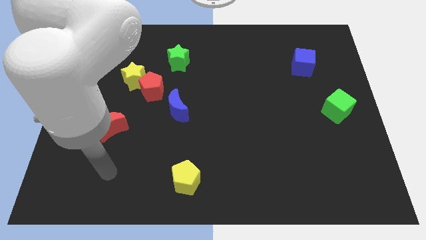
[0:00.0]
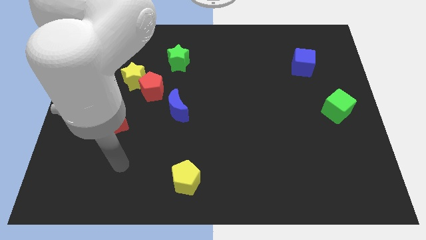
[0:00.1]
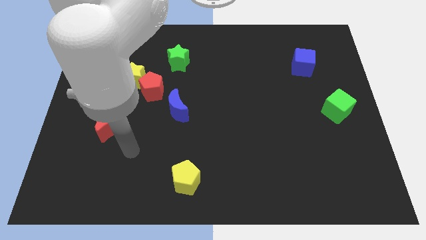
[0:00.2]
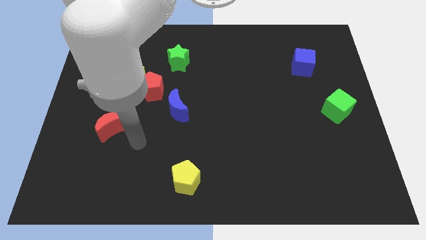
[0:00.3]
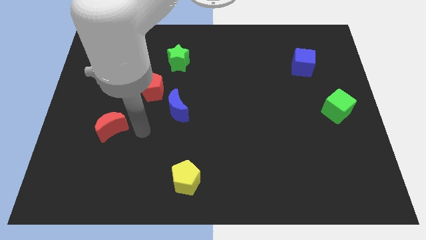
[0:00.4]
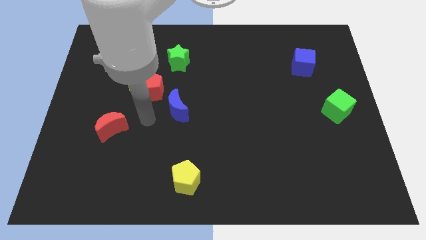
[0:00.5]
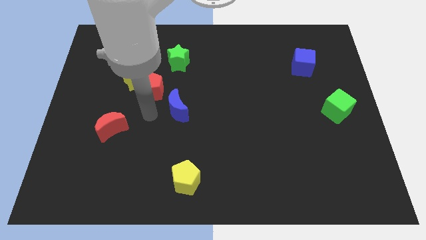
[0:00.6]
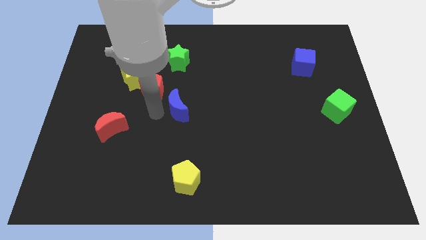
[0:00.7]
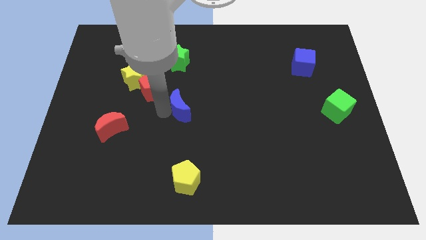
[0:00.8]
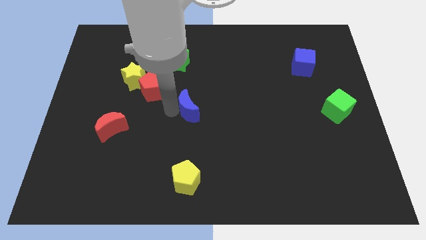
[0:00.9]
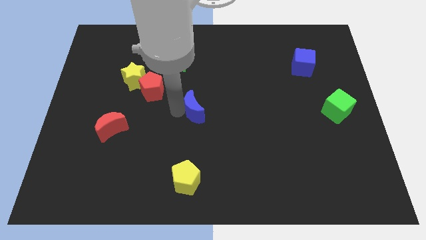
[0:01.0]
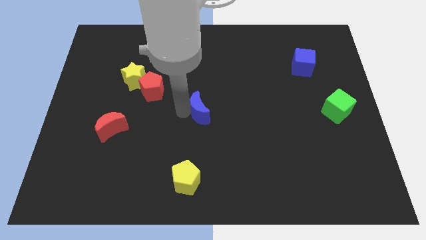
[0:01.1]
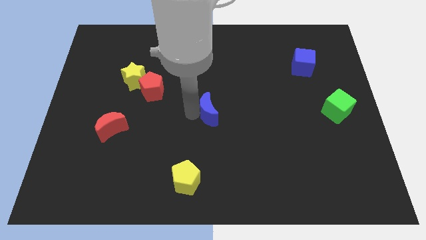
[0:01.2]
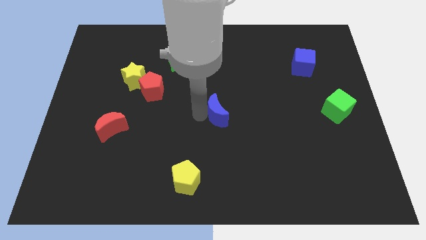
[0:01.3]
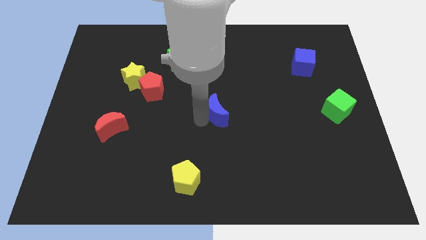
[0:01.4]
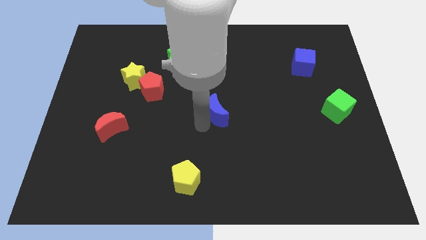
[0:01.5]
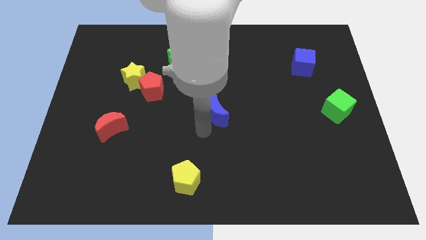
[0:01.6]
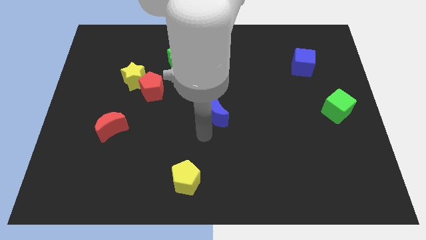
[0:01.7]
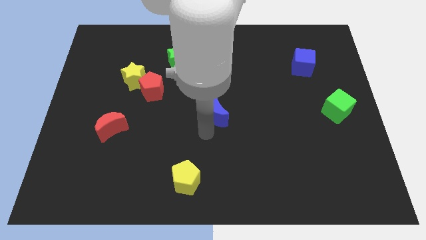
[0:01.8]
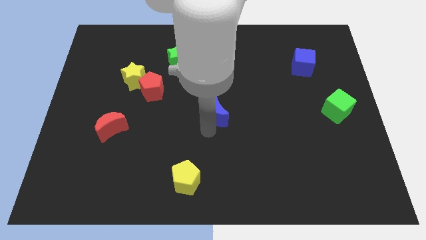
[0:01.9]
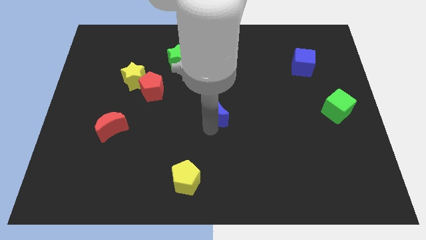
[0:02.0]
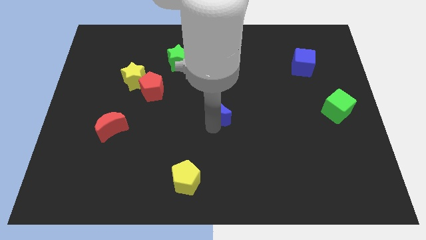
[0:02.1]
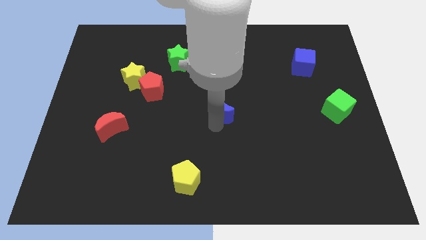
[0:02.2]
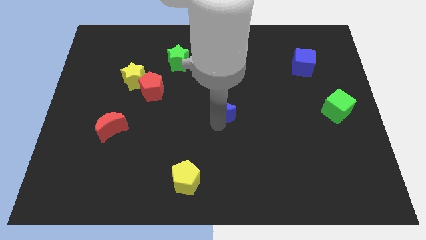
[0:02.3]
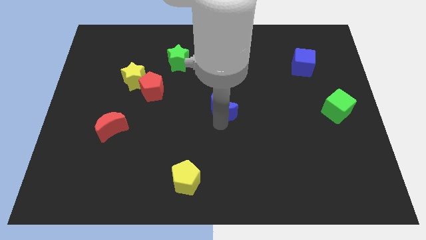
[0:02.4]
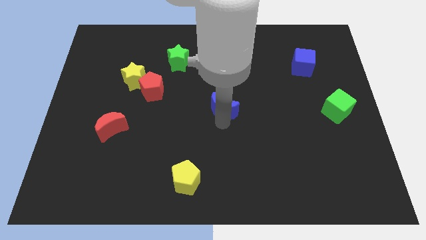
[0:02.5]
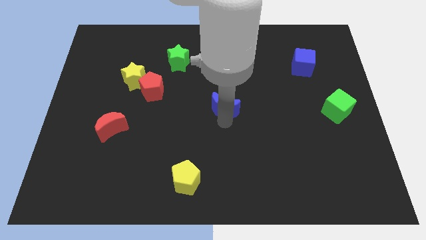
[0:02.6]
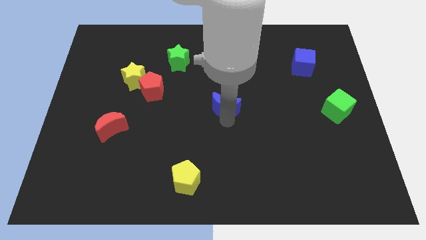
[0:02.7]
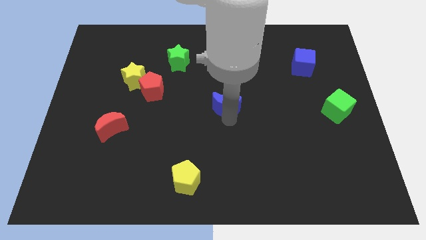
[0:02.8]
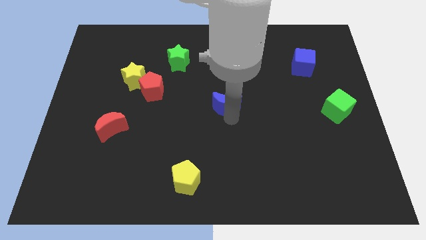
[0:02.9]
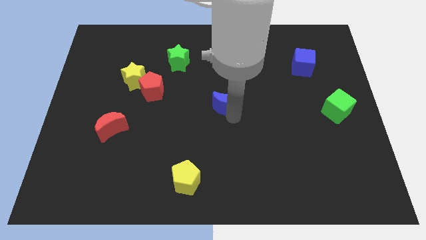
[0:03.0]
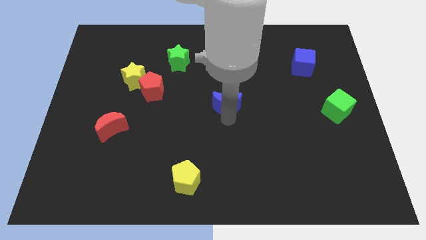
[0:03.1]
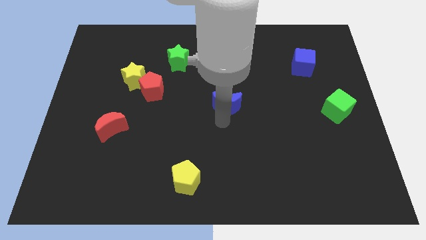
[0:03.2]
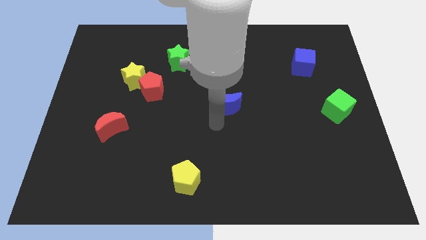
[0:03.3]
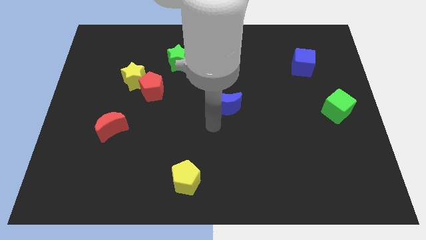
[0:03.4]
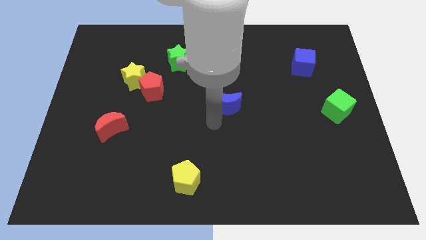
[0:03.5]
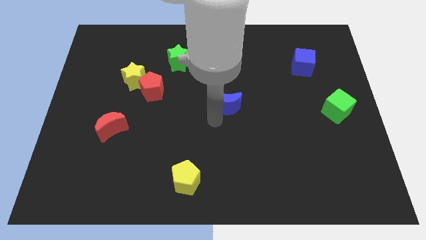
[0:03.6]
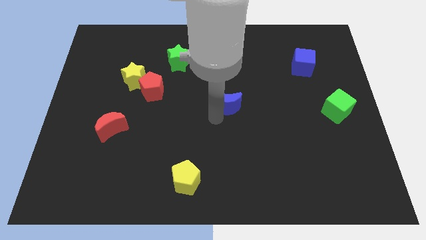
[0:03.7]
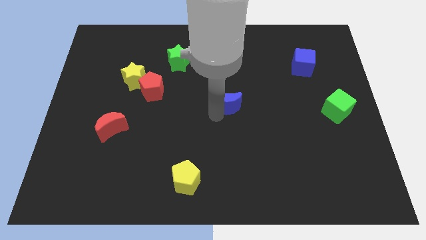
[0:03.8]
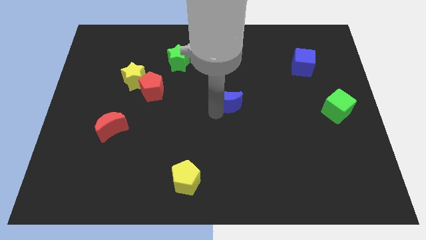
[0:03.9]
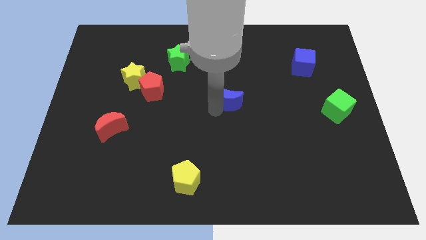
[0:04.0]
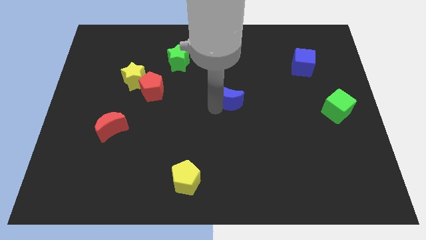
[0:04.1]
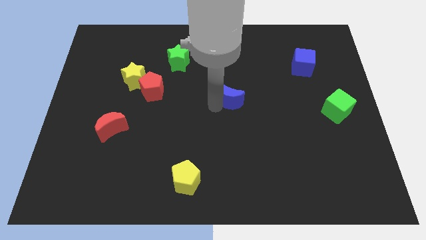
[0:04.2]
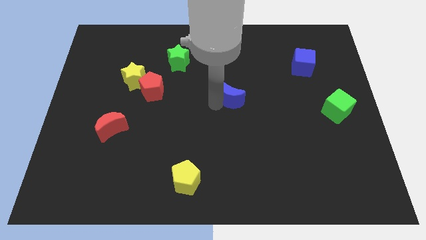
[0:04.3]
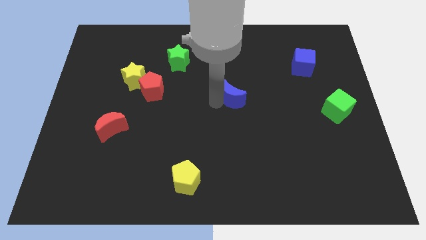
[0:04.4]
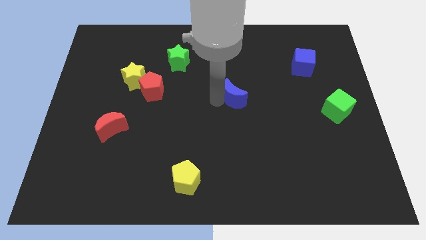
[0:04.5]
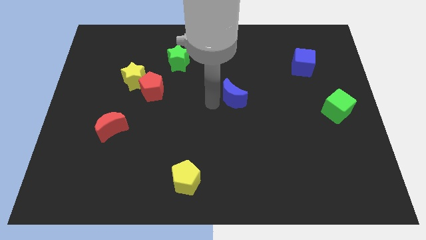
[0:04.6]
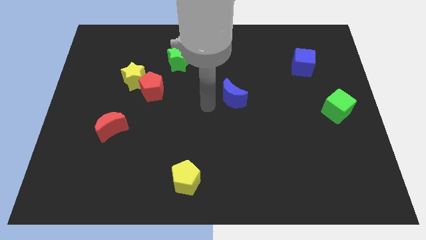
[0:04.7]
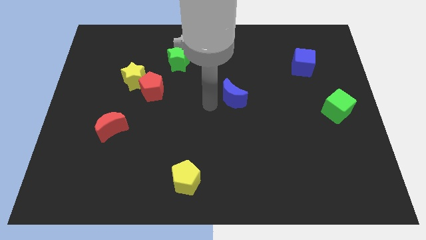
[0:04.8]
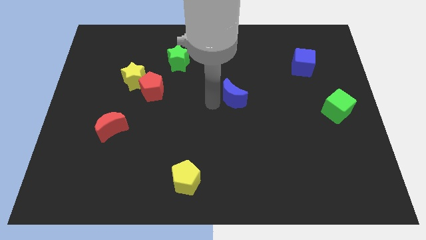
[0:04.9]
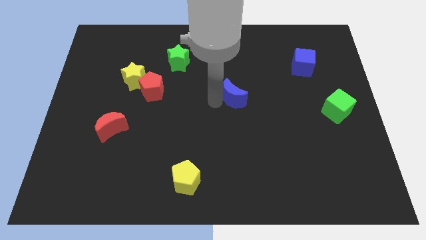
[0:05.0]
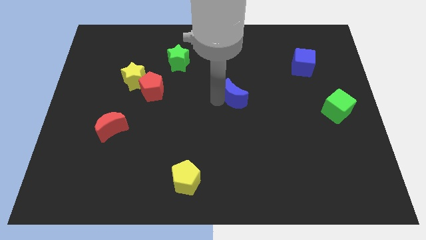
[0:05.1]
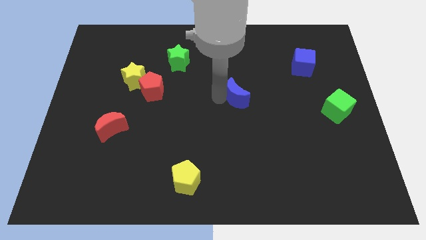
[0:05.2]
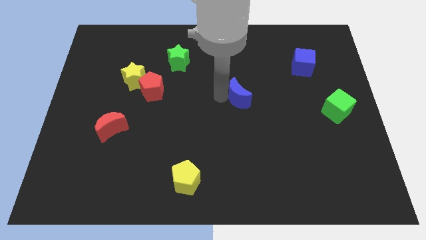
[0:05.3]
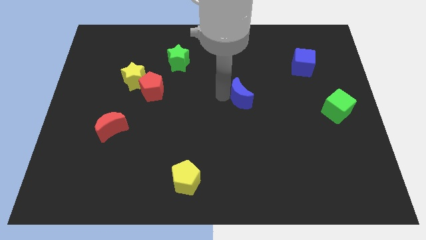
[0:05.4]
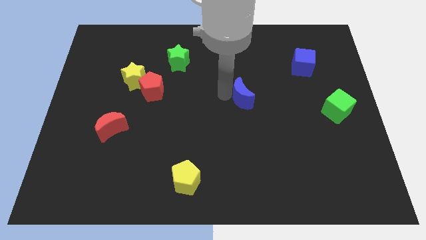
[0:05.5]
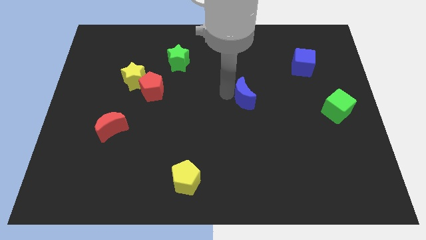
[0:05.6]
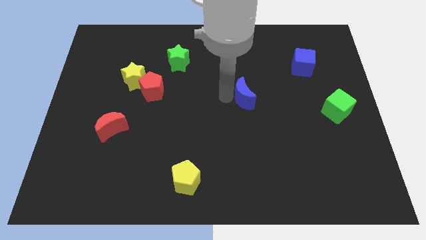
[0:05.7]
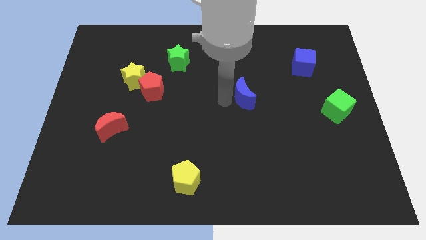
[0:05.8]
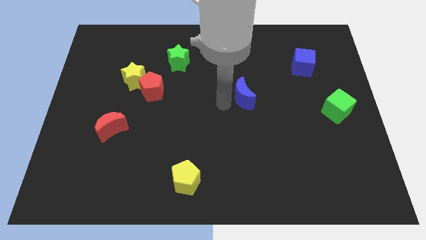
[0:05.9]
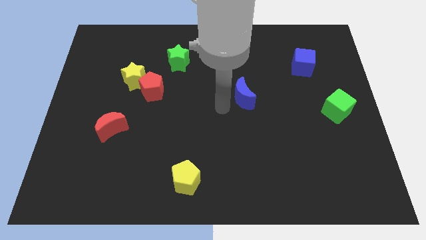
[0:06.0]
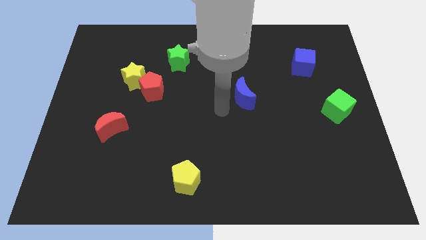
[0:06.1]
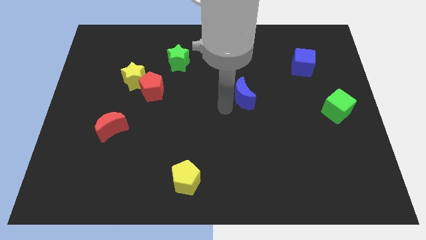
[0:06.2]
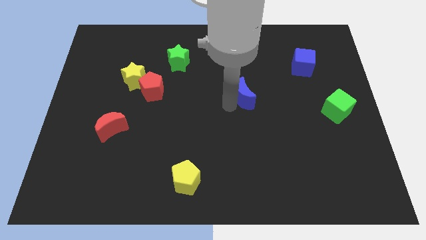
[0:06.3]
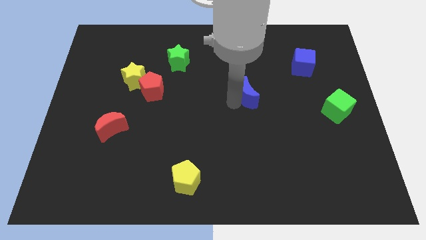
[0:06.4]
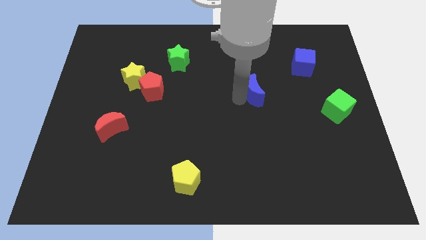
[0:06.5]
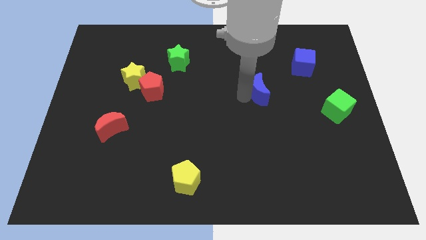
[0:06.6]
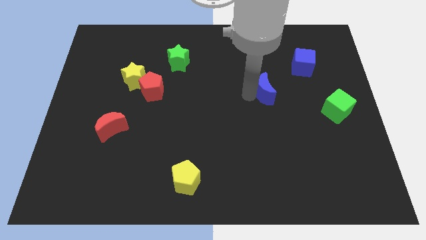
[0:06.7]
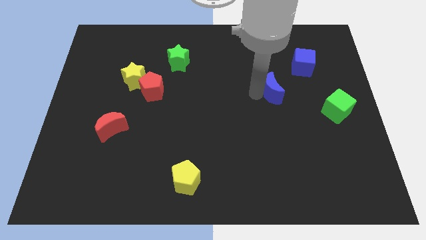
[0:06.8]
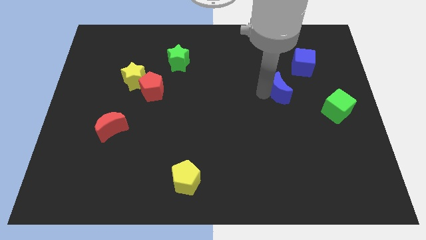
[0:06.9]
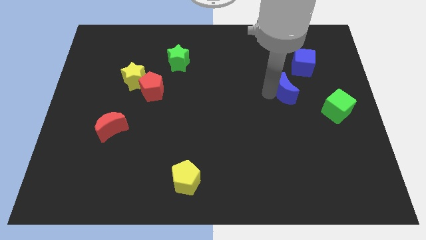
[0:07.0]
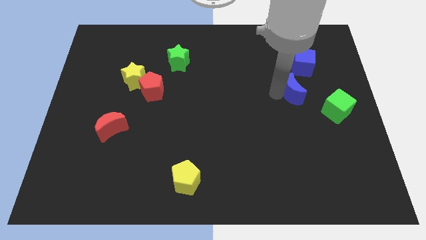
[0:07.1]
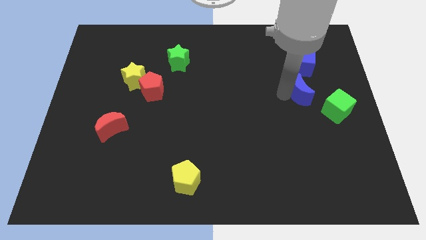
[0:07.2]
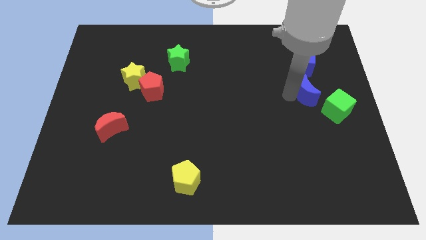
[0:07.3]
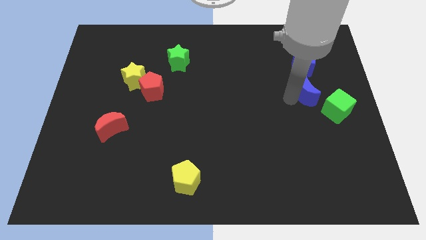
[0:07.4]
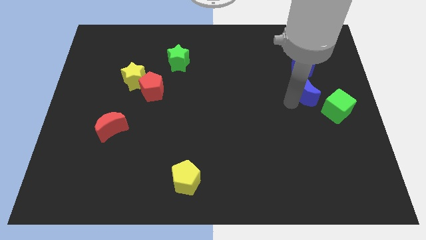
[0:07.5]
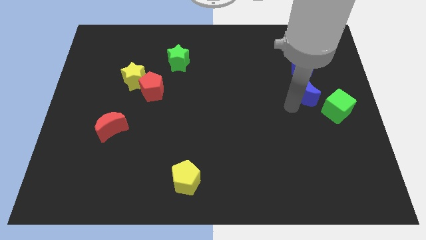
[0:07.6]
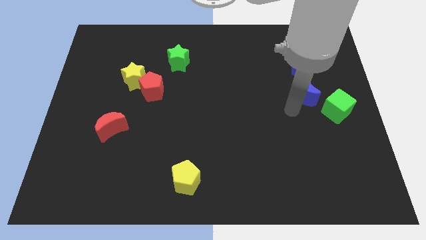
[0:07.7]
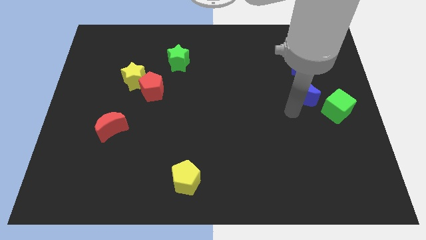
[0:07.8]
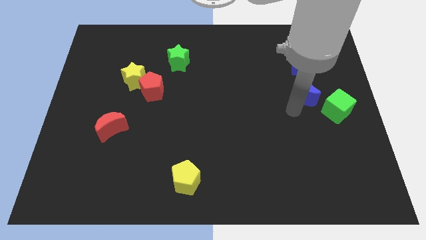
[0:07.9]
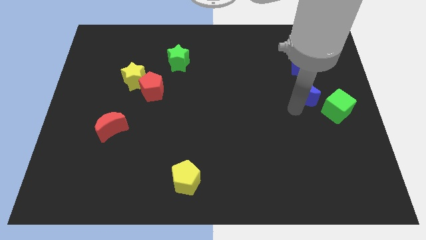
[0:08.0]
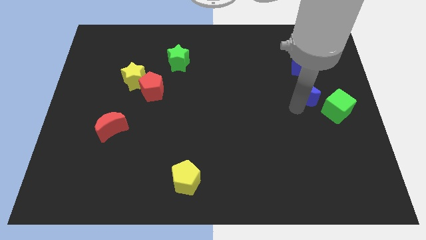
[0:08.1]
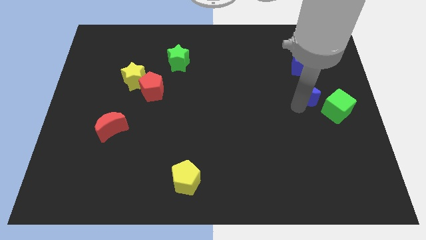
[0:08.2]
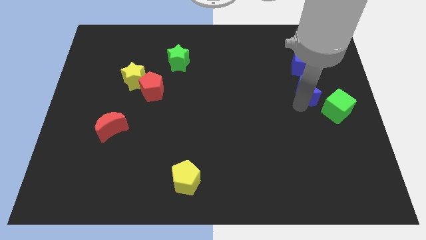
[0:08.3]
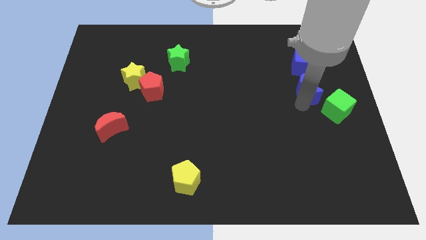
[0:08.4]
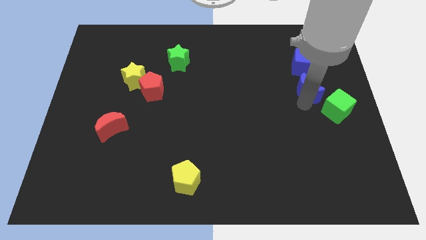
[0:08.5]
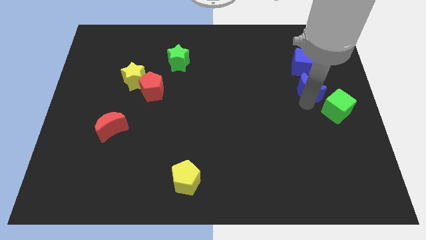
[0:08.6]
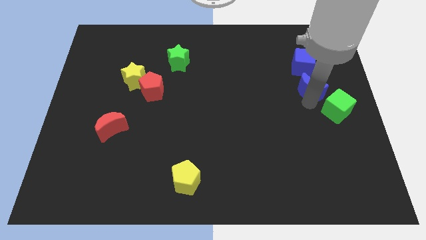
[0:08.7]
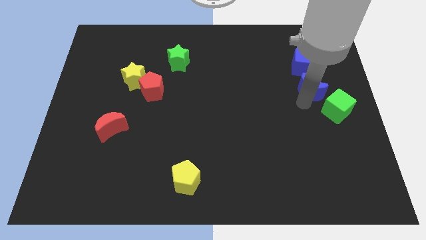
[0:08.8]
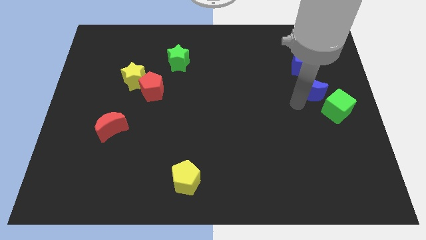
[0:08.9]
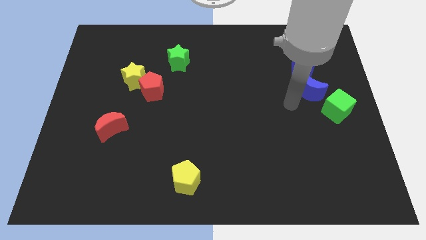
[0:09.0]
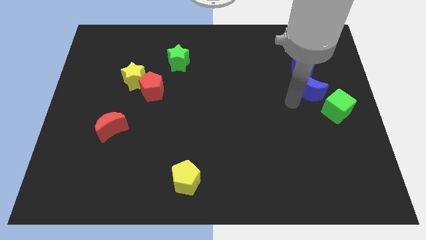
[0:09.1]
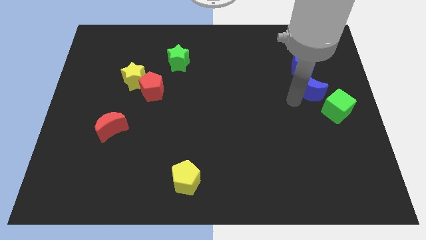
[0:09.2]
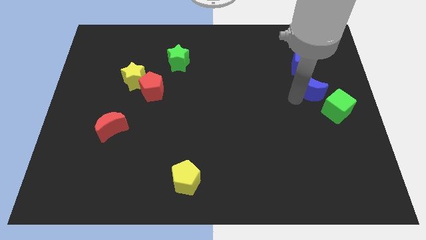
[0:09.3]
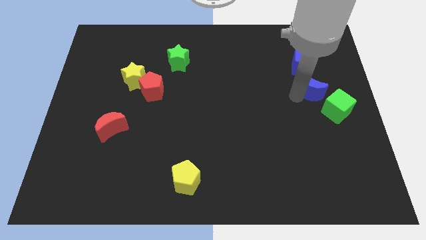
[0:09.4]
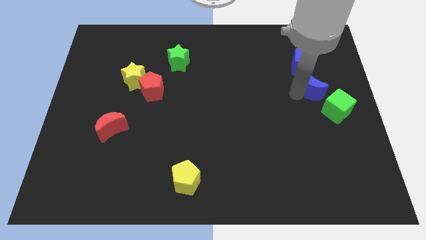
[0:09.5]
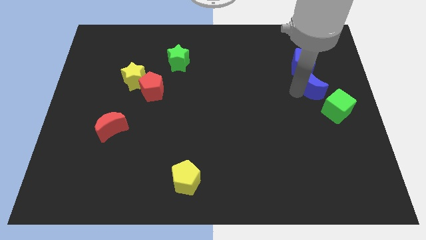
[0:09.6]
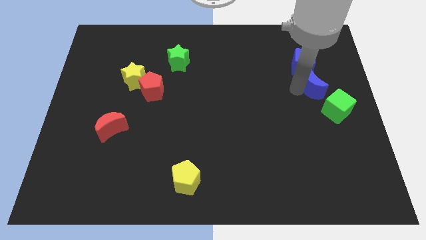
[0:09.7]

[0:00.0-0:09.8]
push the blue moon diagonally down and to the right of the blue cube
